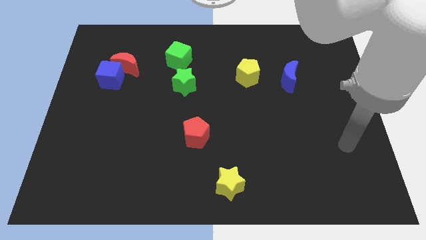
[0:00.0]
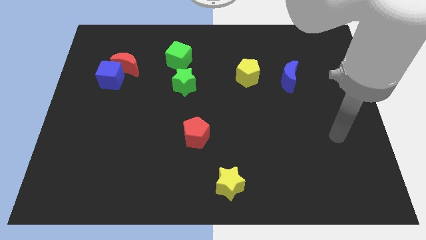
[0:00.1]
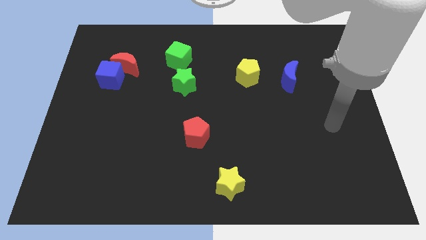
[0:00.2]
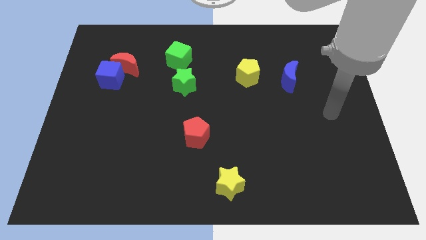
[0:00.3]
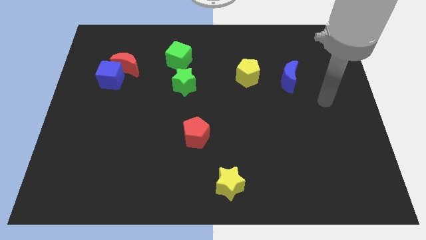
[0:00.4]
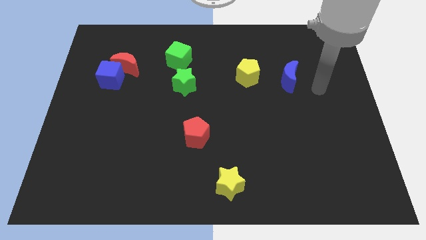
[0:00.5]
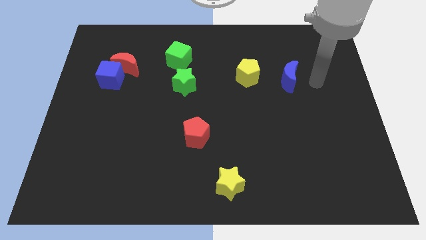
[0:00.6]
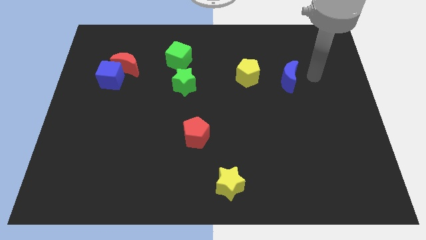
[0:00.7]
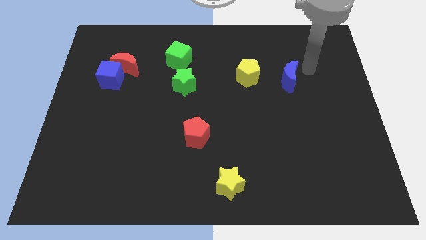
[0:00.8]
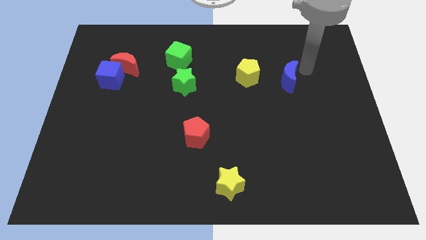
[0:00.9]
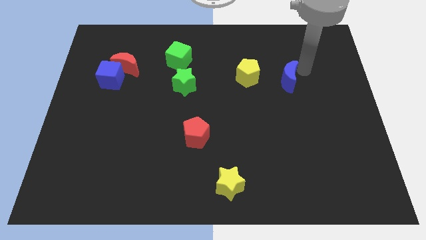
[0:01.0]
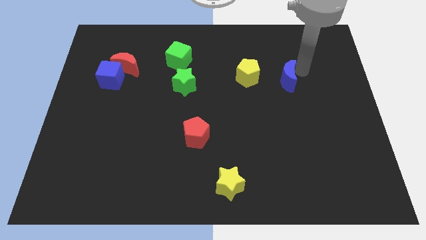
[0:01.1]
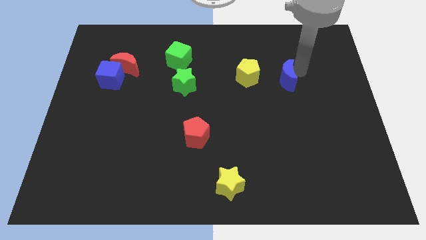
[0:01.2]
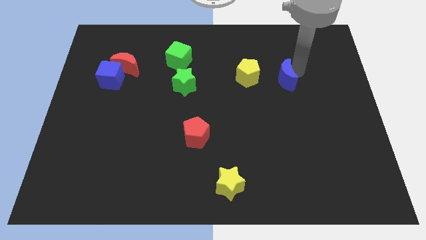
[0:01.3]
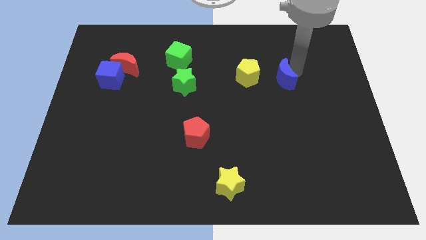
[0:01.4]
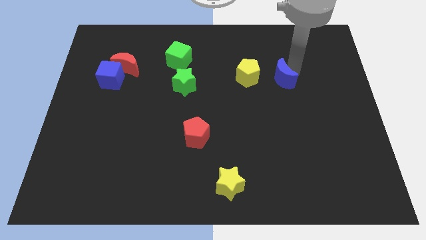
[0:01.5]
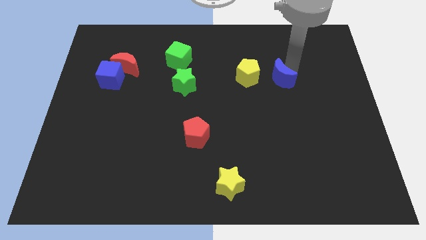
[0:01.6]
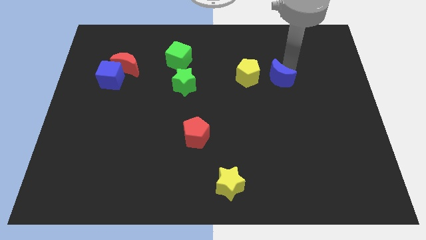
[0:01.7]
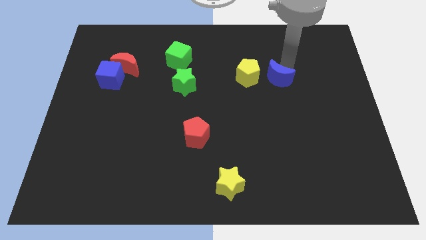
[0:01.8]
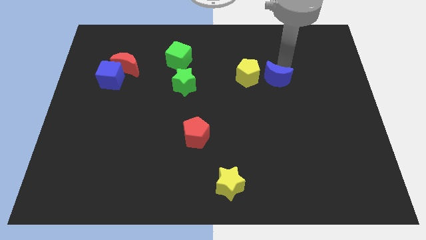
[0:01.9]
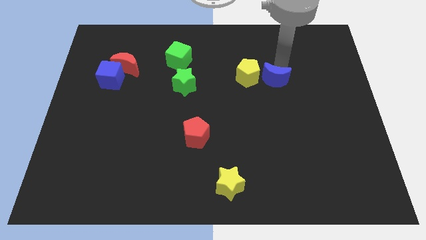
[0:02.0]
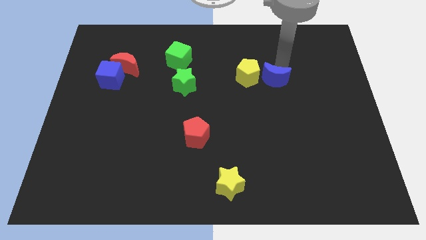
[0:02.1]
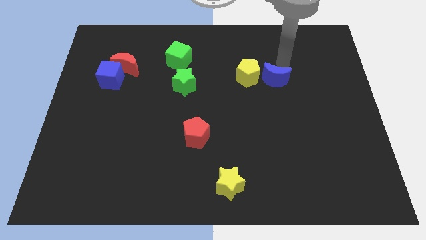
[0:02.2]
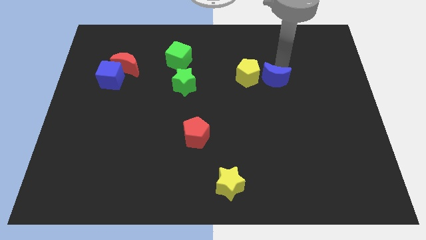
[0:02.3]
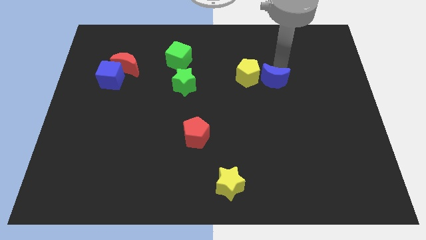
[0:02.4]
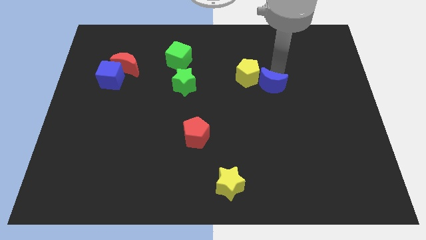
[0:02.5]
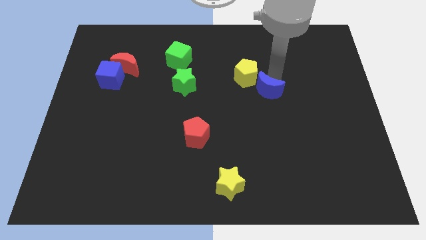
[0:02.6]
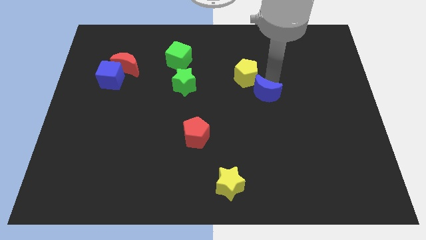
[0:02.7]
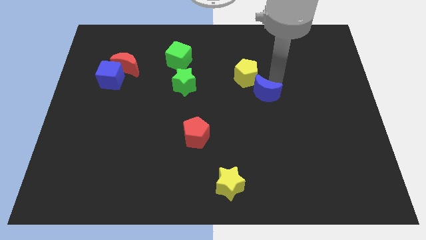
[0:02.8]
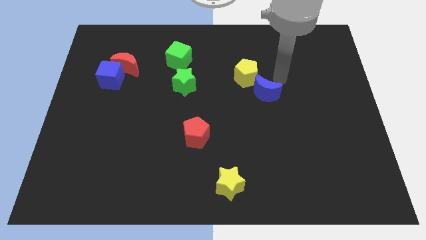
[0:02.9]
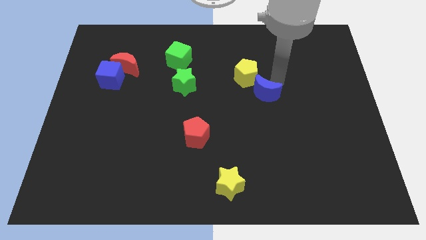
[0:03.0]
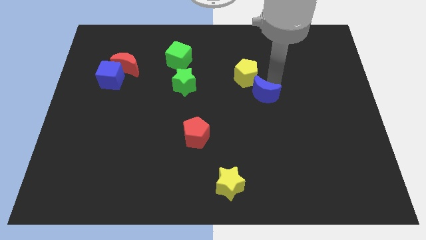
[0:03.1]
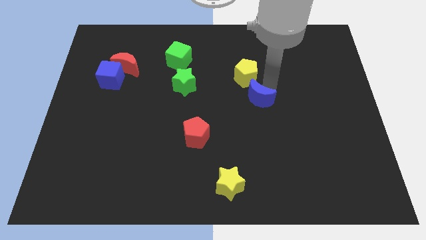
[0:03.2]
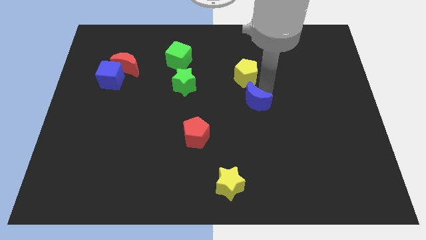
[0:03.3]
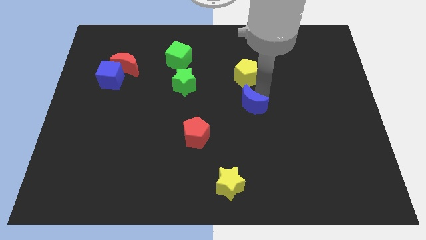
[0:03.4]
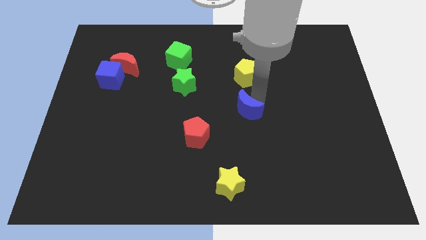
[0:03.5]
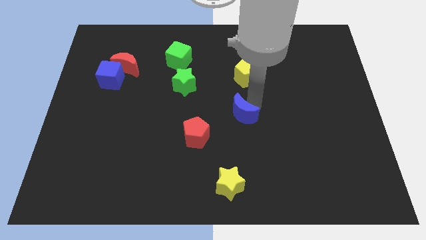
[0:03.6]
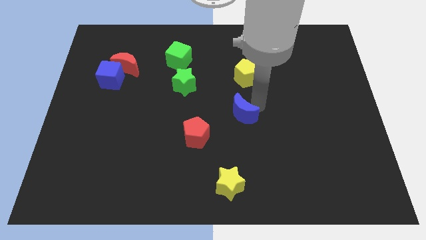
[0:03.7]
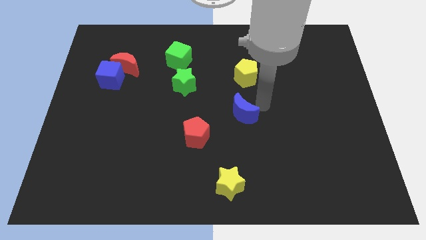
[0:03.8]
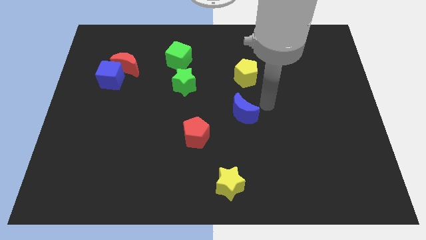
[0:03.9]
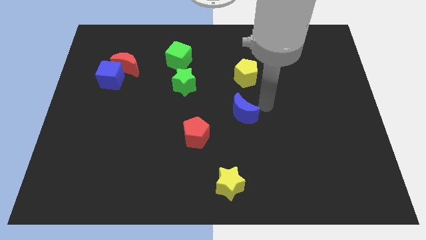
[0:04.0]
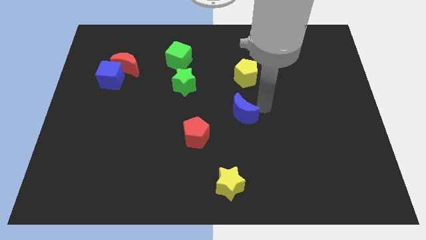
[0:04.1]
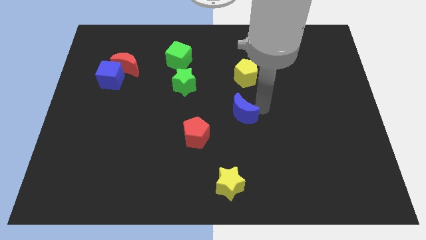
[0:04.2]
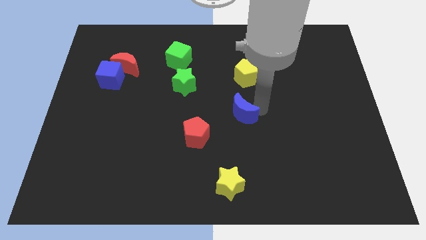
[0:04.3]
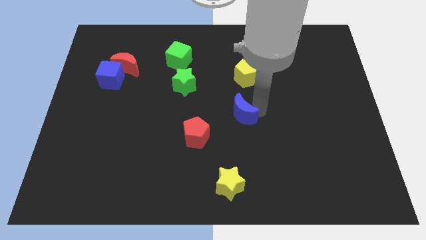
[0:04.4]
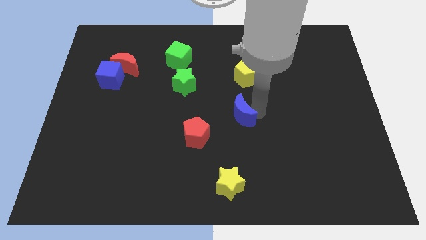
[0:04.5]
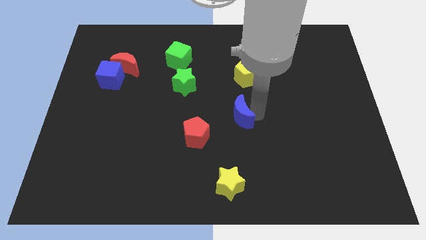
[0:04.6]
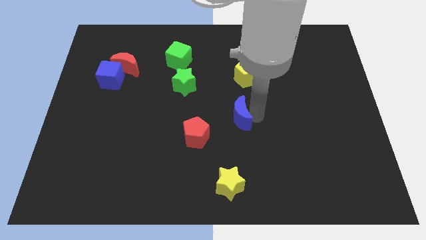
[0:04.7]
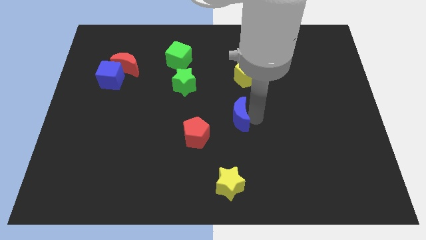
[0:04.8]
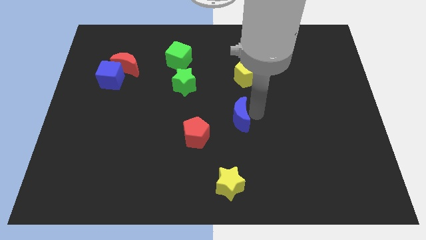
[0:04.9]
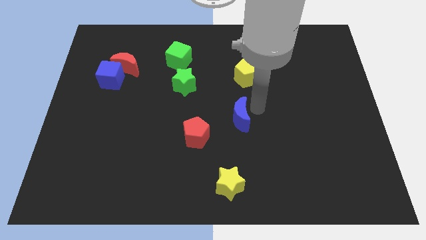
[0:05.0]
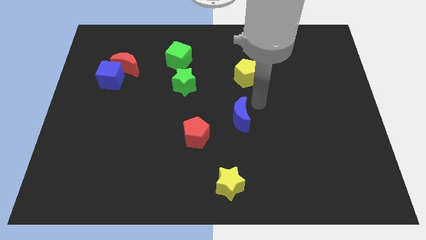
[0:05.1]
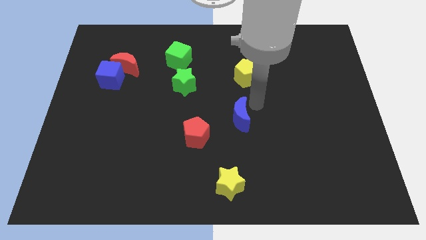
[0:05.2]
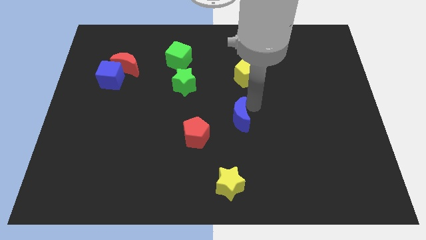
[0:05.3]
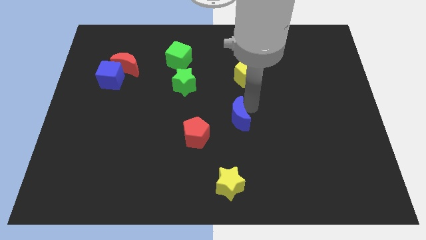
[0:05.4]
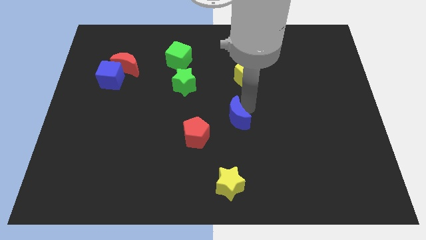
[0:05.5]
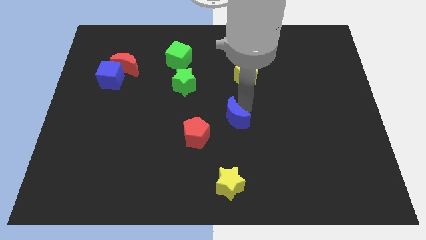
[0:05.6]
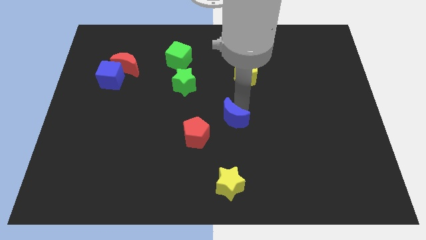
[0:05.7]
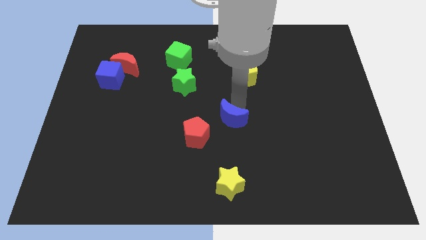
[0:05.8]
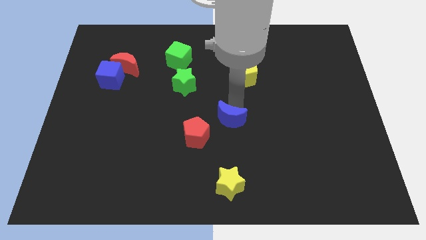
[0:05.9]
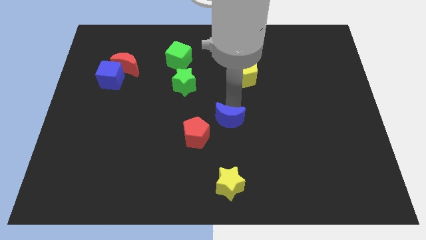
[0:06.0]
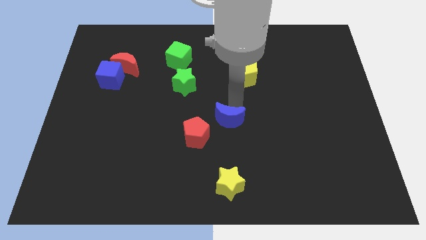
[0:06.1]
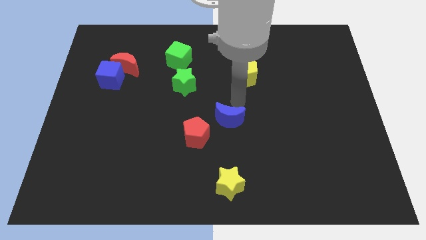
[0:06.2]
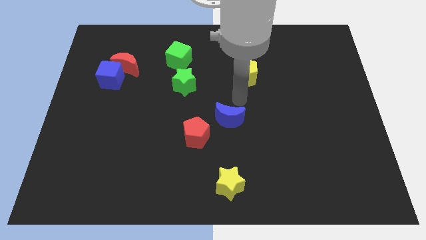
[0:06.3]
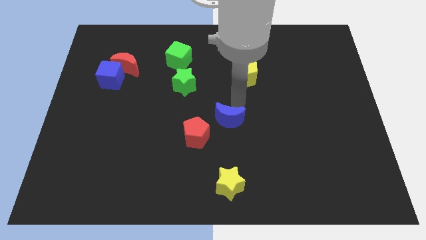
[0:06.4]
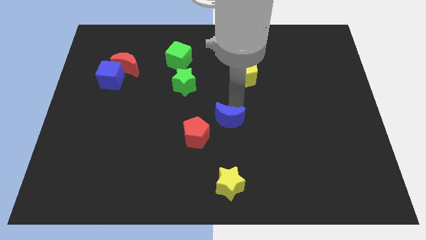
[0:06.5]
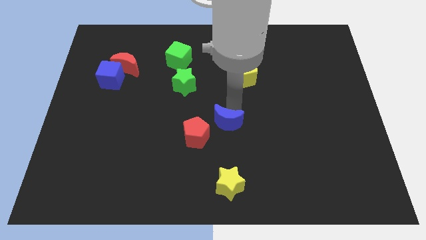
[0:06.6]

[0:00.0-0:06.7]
slide the blue moon down and to the left diagonally

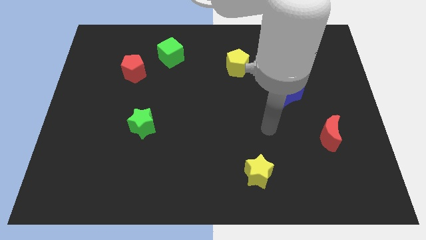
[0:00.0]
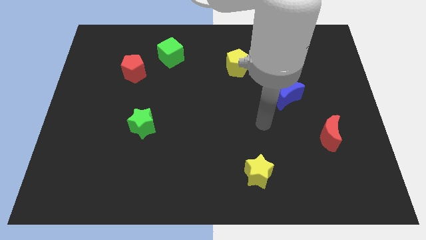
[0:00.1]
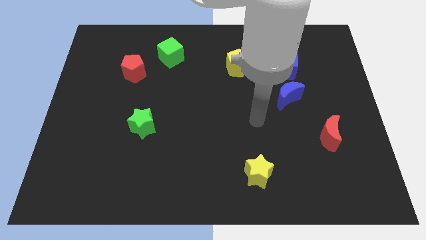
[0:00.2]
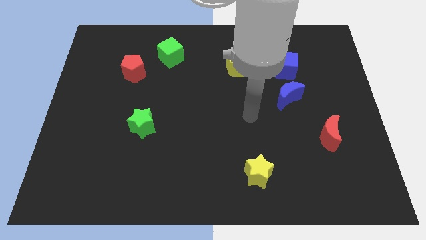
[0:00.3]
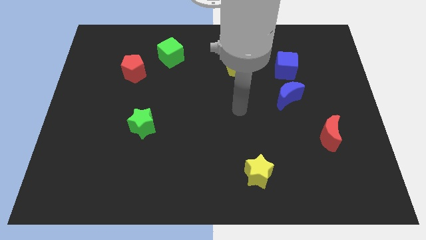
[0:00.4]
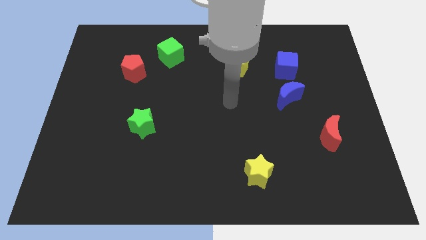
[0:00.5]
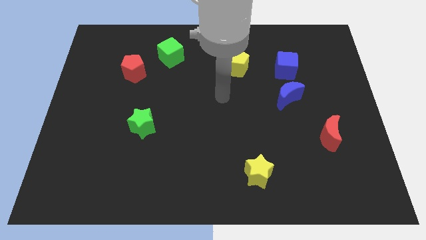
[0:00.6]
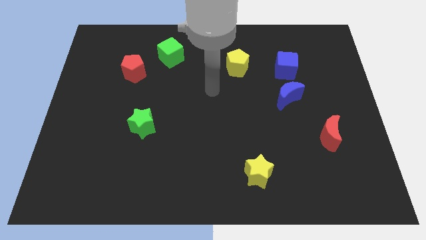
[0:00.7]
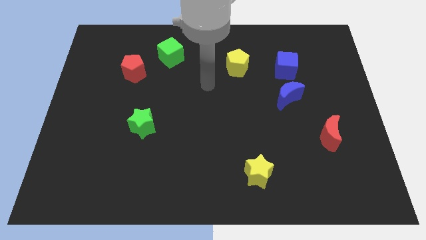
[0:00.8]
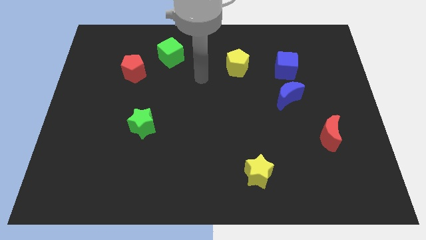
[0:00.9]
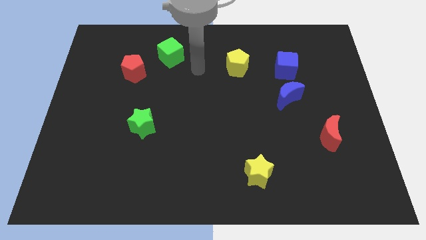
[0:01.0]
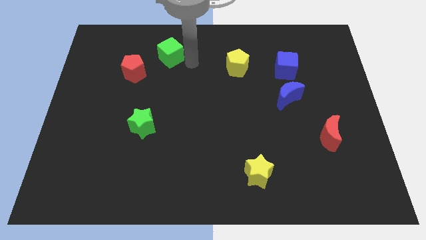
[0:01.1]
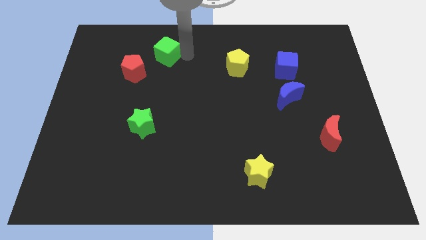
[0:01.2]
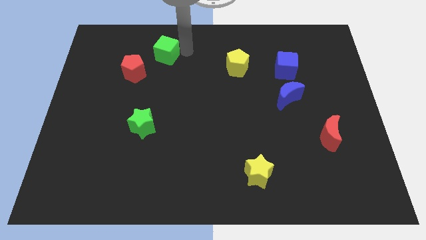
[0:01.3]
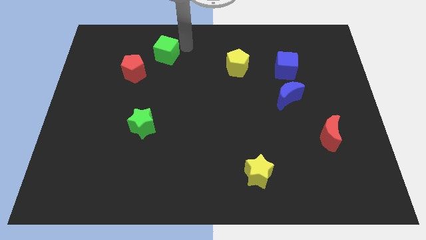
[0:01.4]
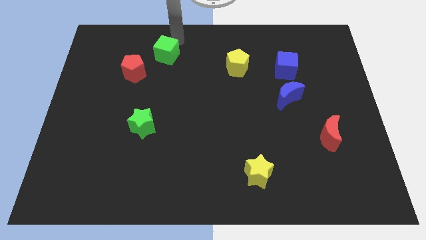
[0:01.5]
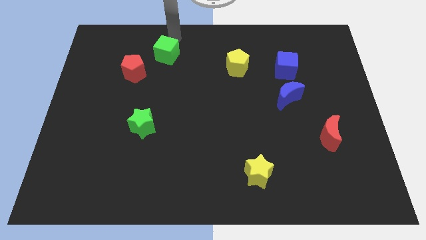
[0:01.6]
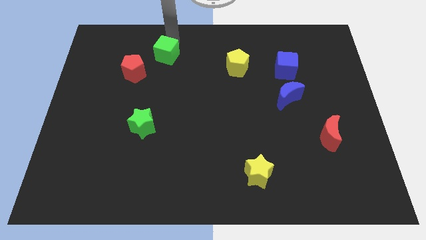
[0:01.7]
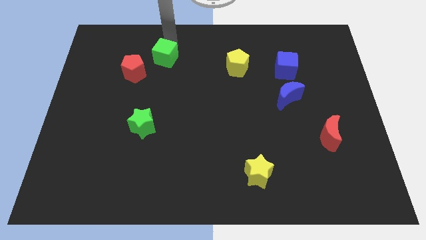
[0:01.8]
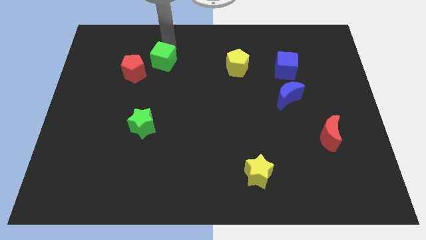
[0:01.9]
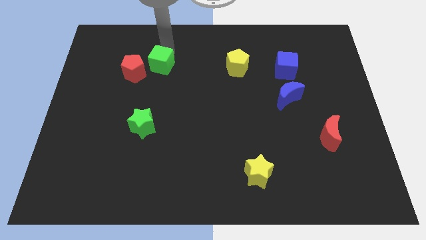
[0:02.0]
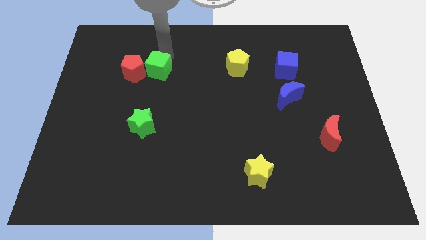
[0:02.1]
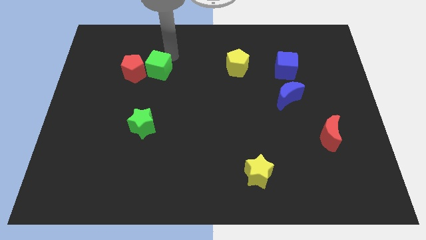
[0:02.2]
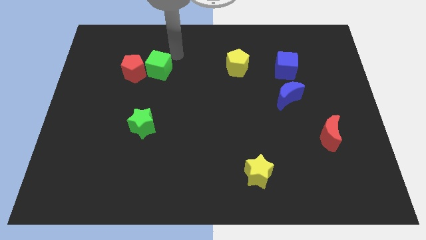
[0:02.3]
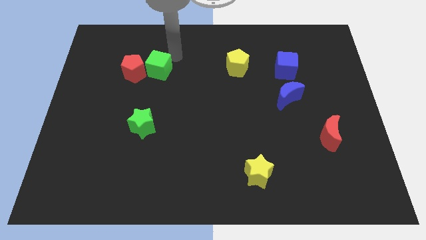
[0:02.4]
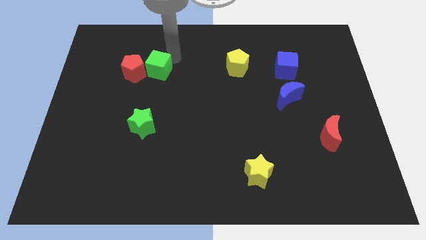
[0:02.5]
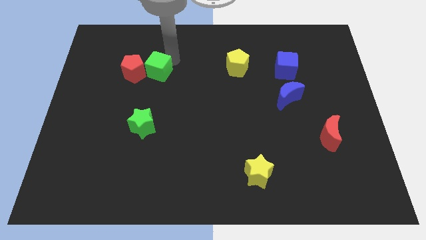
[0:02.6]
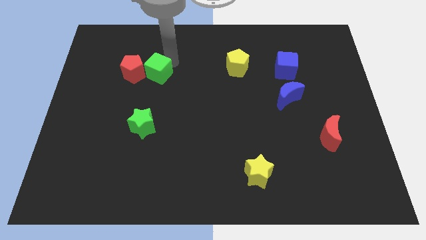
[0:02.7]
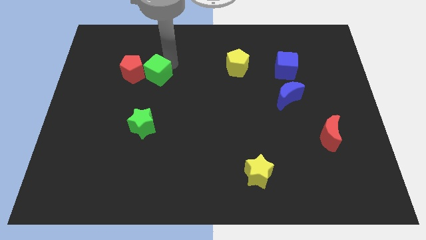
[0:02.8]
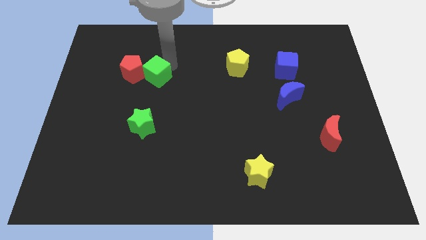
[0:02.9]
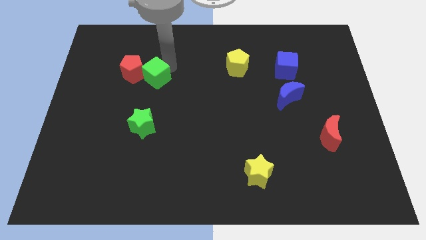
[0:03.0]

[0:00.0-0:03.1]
push the green cube down and to the left slightly
